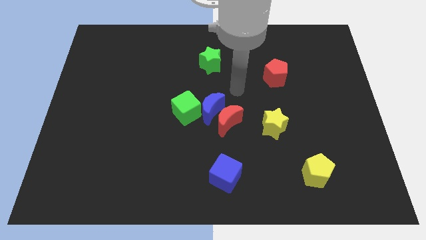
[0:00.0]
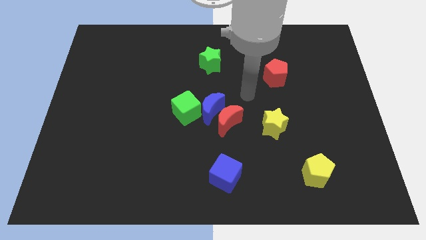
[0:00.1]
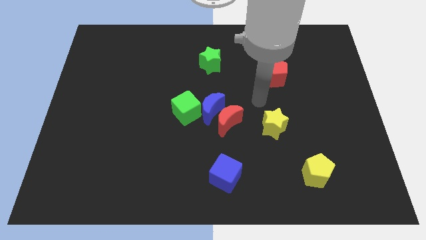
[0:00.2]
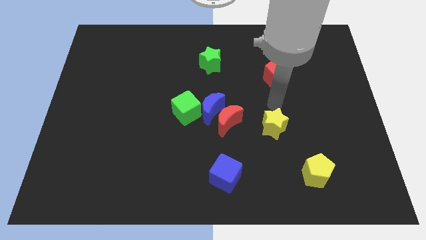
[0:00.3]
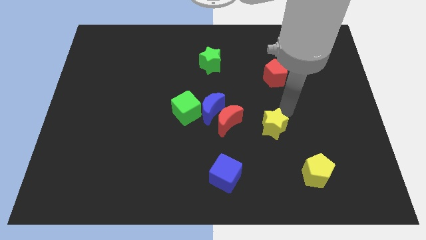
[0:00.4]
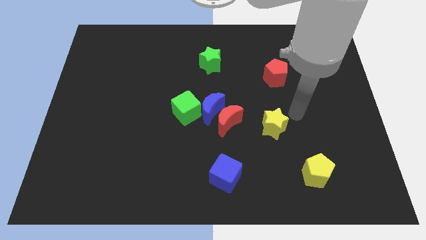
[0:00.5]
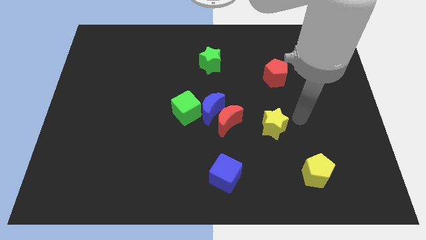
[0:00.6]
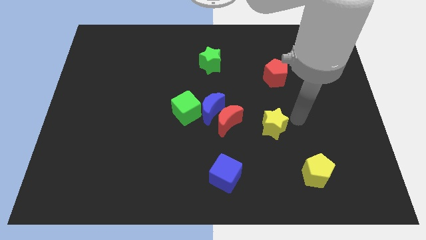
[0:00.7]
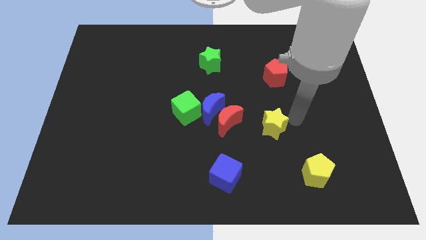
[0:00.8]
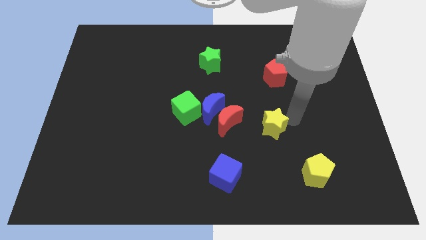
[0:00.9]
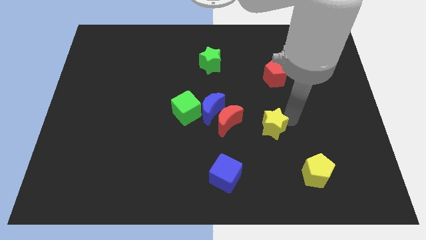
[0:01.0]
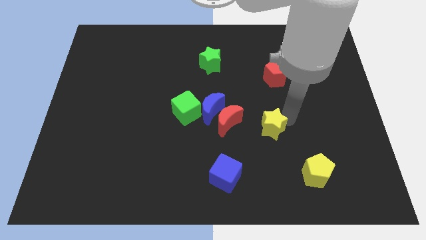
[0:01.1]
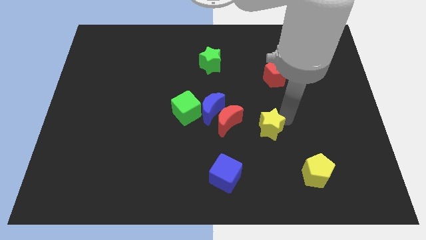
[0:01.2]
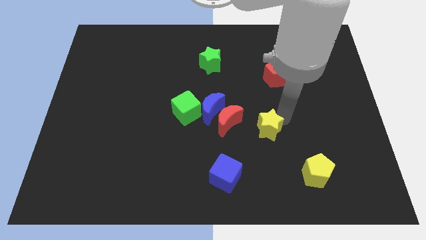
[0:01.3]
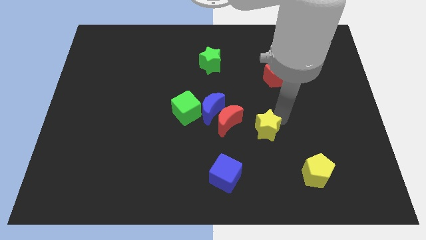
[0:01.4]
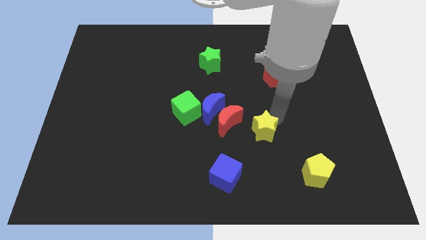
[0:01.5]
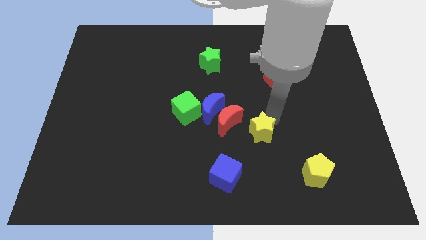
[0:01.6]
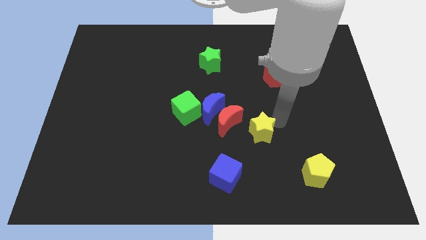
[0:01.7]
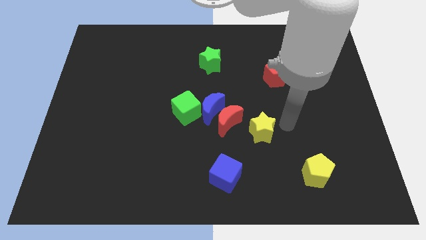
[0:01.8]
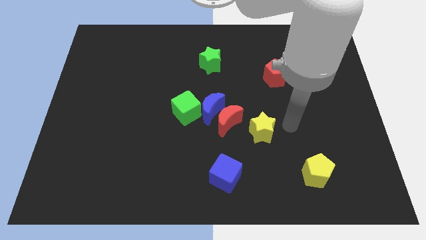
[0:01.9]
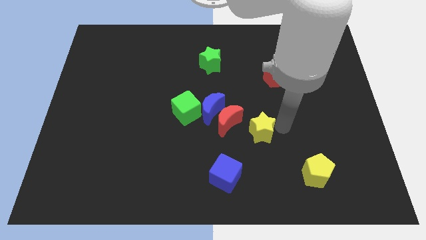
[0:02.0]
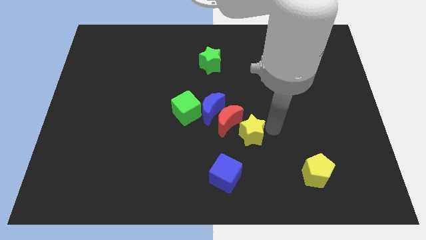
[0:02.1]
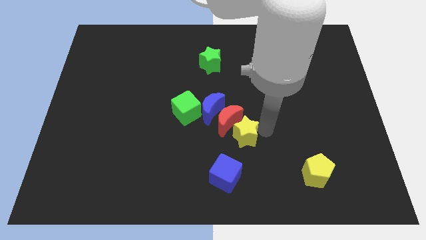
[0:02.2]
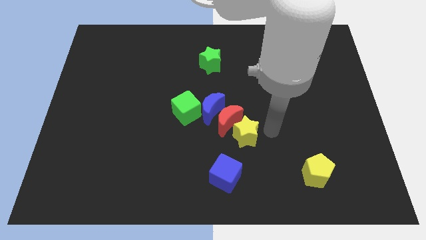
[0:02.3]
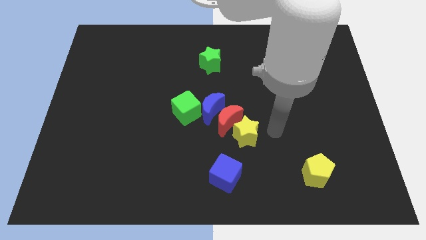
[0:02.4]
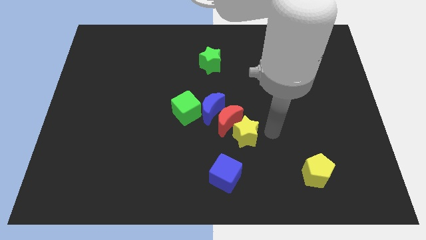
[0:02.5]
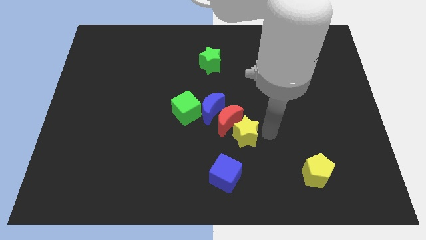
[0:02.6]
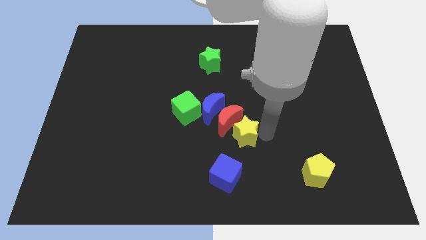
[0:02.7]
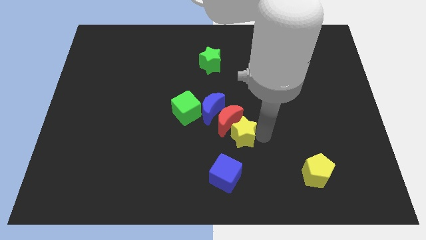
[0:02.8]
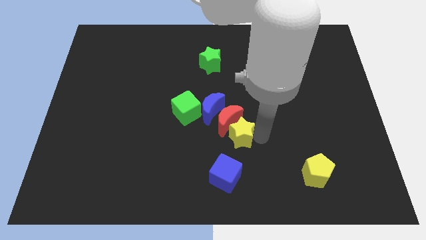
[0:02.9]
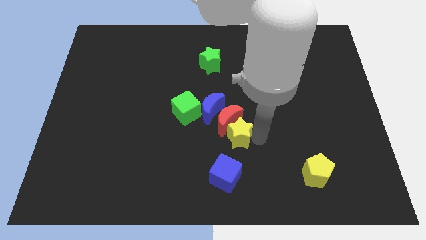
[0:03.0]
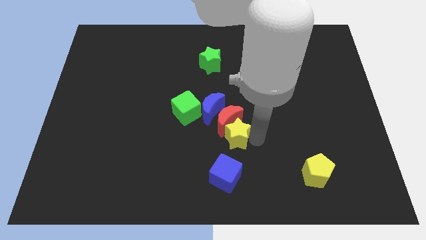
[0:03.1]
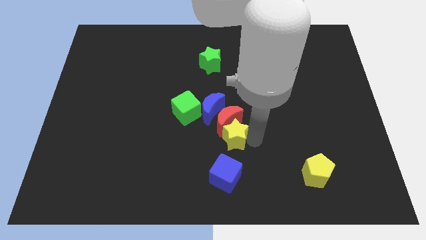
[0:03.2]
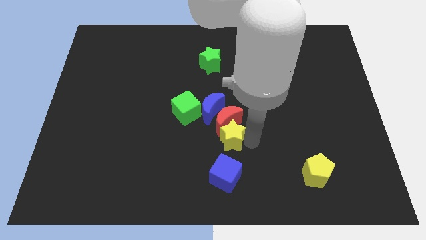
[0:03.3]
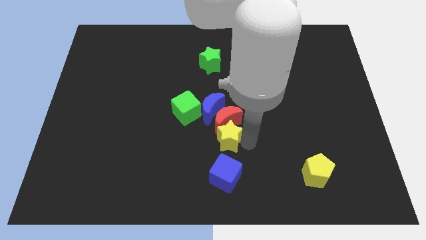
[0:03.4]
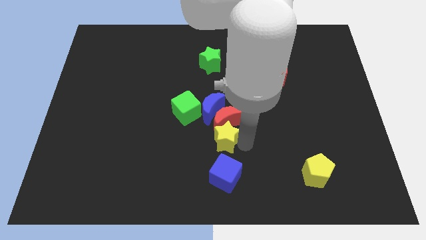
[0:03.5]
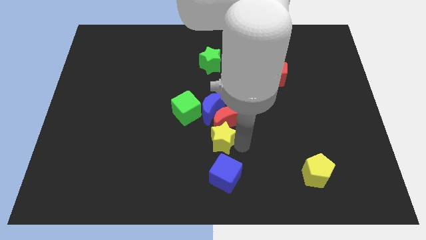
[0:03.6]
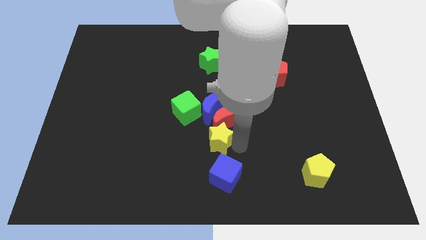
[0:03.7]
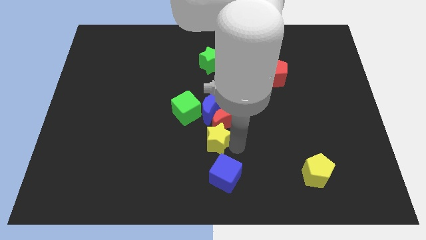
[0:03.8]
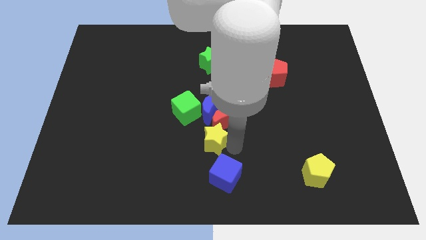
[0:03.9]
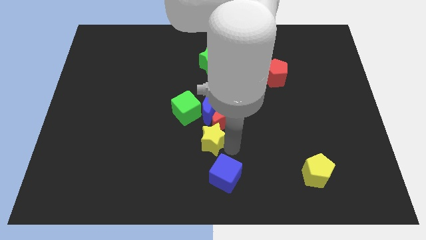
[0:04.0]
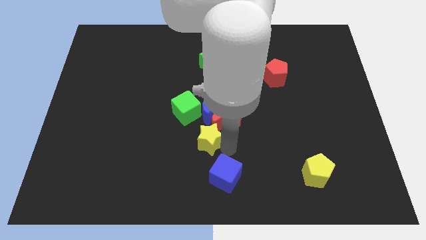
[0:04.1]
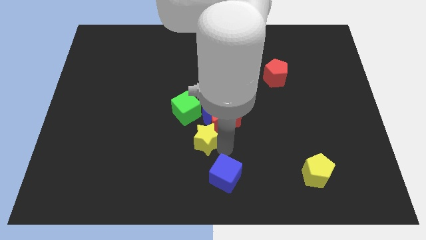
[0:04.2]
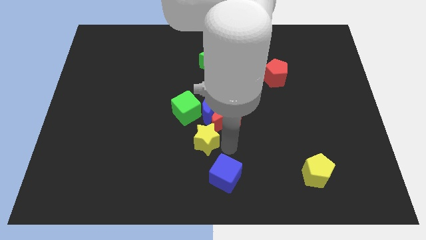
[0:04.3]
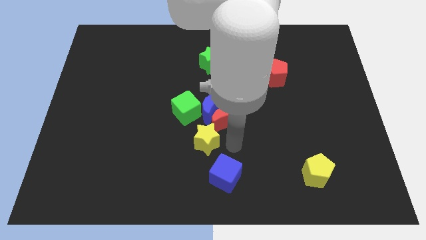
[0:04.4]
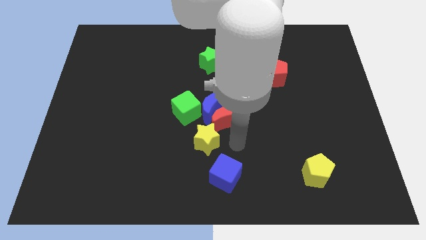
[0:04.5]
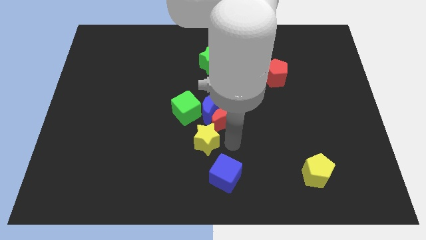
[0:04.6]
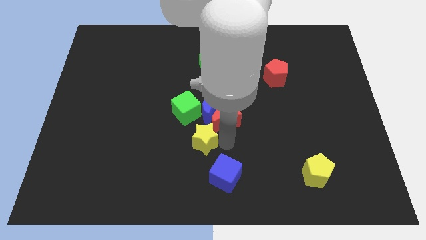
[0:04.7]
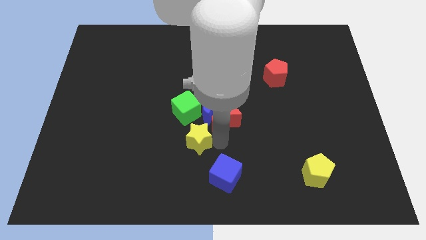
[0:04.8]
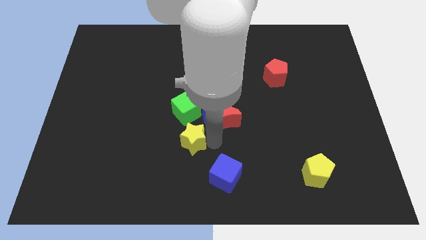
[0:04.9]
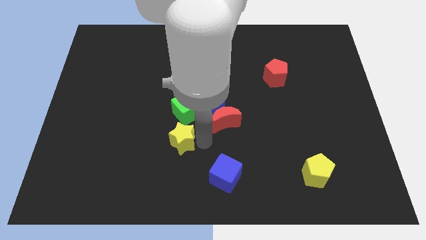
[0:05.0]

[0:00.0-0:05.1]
move the yellow star left

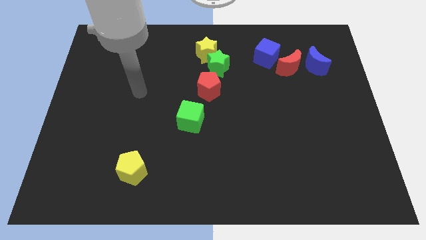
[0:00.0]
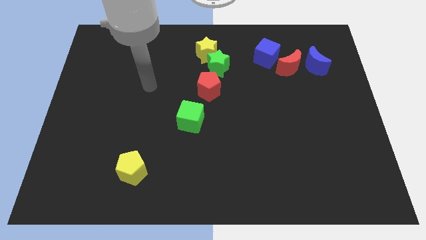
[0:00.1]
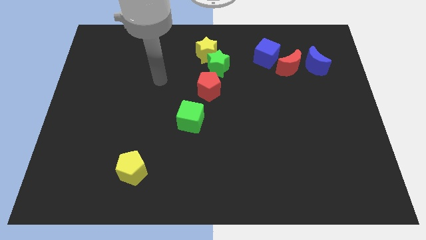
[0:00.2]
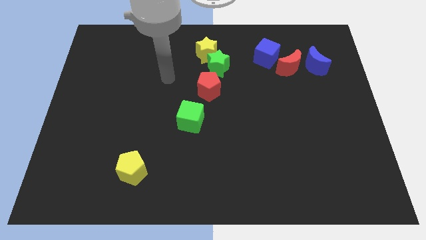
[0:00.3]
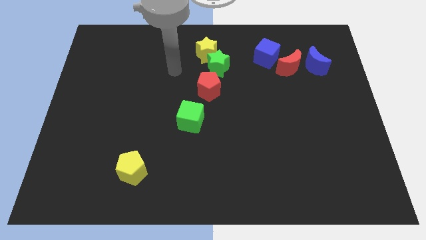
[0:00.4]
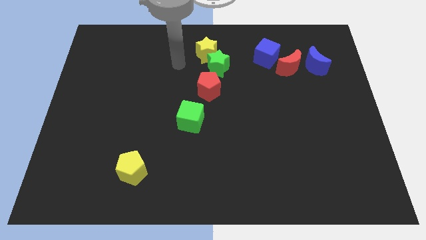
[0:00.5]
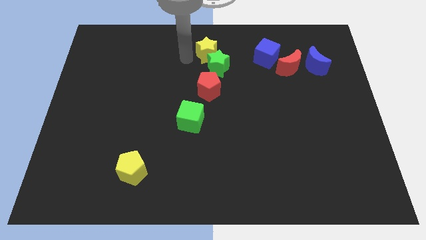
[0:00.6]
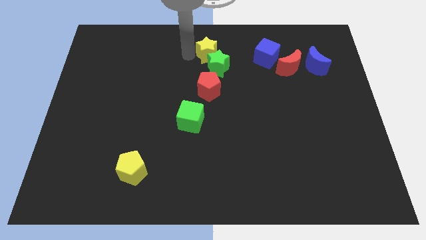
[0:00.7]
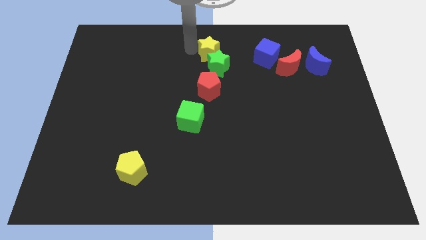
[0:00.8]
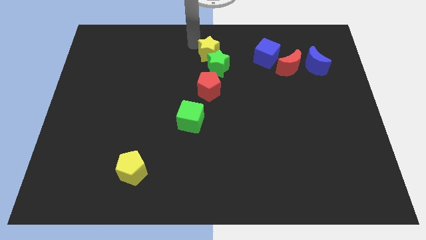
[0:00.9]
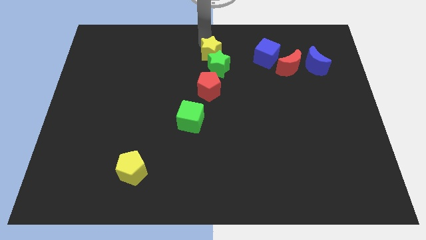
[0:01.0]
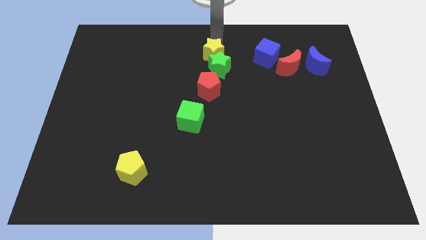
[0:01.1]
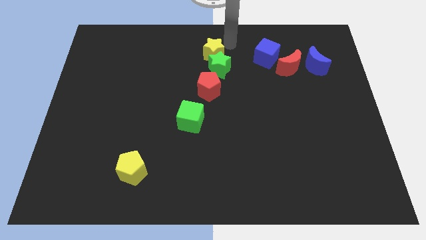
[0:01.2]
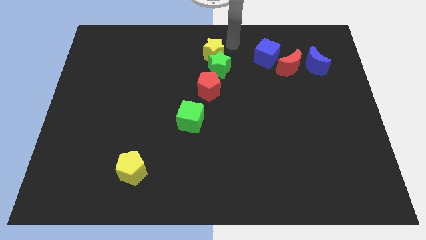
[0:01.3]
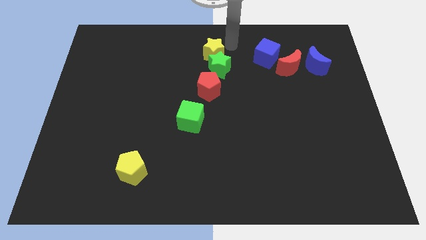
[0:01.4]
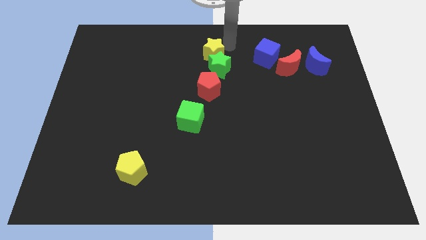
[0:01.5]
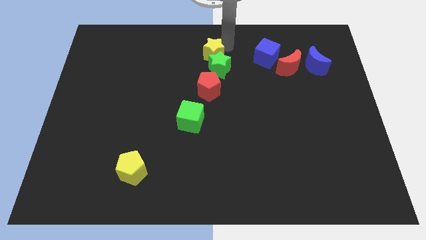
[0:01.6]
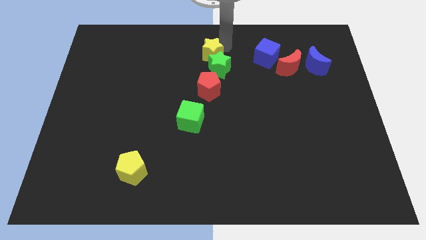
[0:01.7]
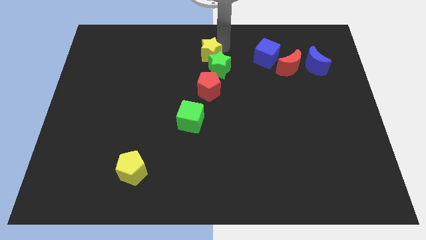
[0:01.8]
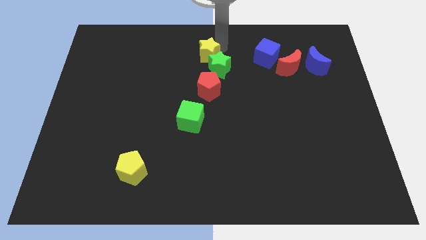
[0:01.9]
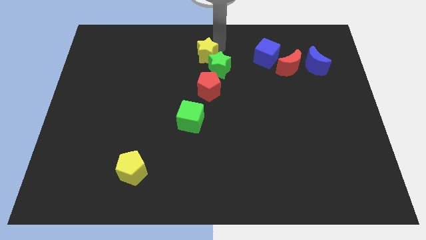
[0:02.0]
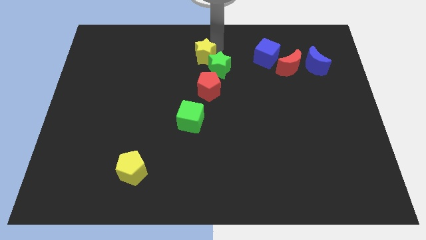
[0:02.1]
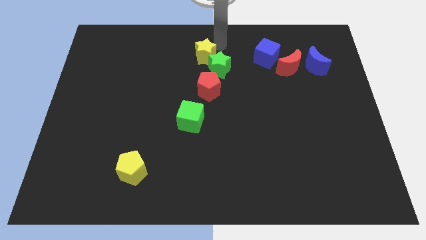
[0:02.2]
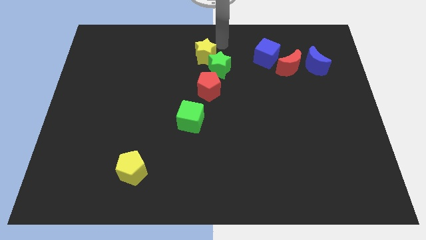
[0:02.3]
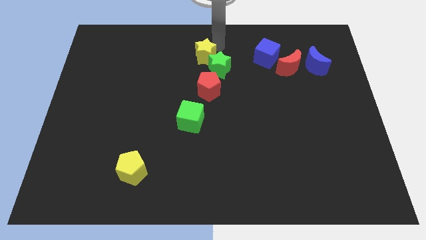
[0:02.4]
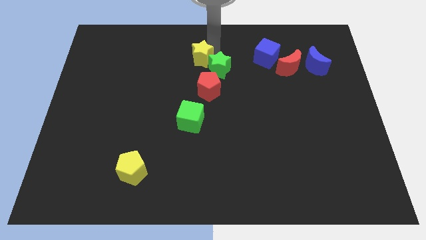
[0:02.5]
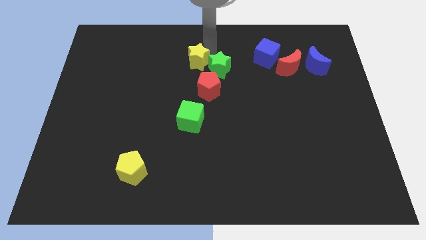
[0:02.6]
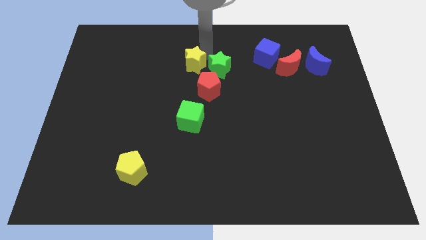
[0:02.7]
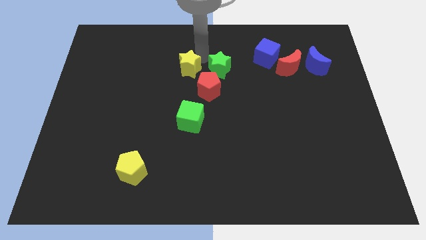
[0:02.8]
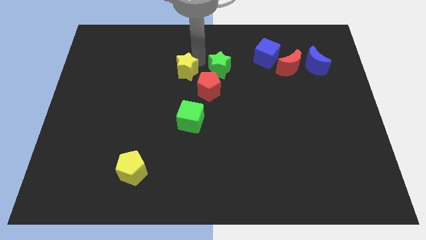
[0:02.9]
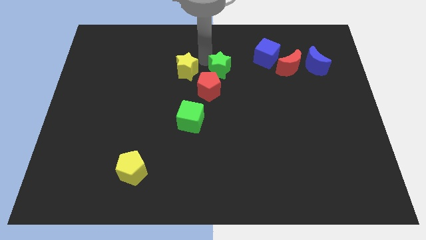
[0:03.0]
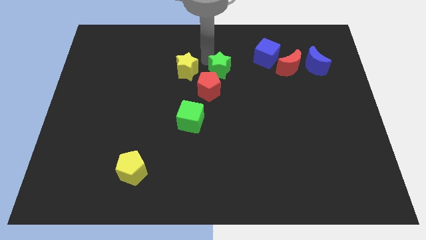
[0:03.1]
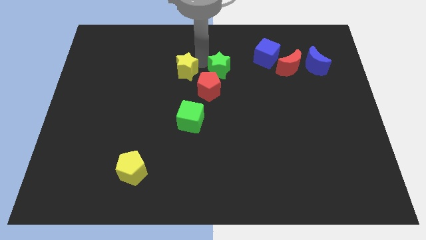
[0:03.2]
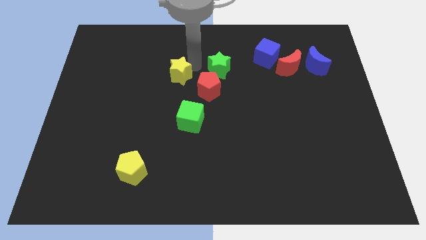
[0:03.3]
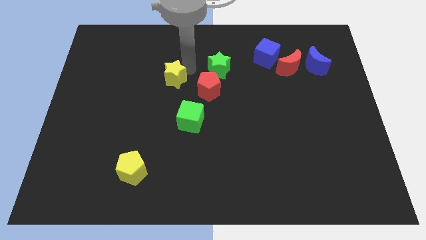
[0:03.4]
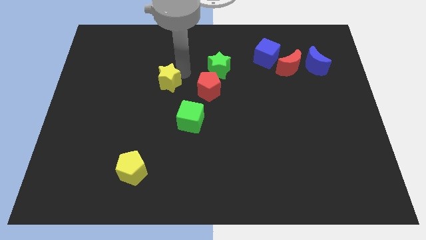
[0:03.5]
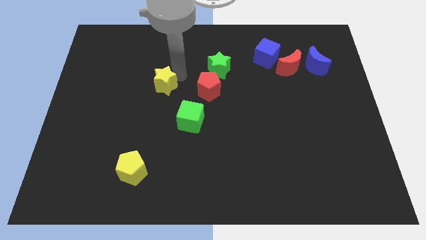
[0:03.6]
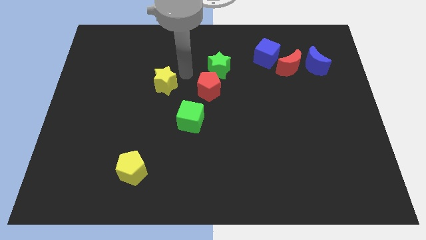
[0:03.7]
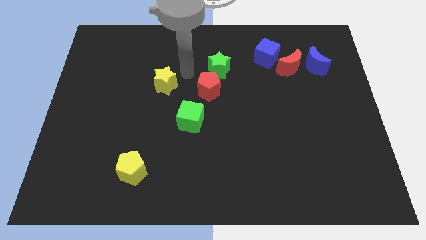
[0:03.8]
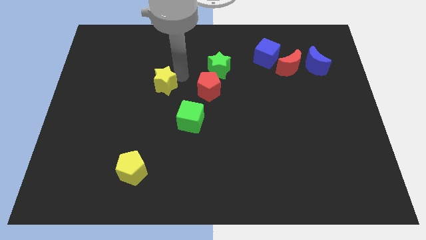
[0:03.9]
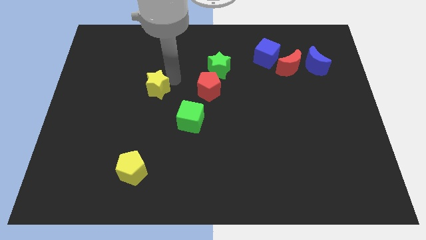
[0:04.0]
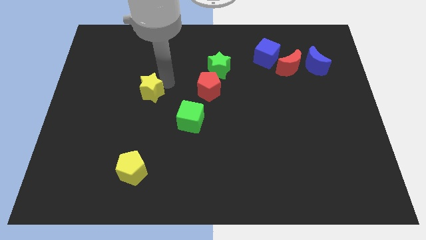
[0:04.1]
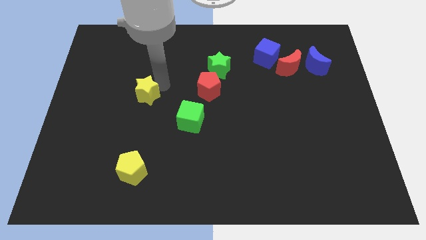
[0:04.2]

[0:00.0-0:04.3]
push the yellow star downwards and then left
